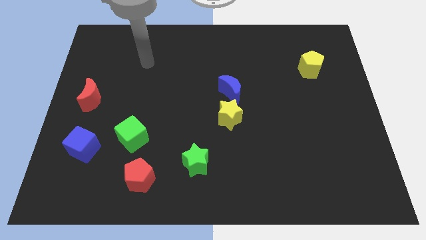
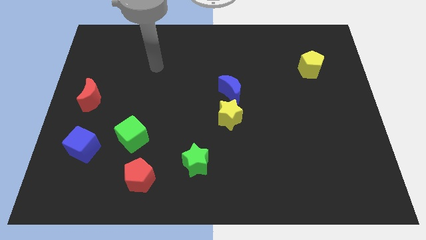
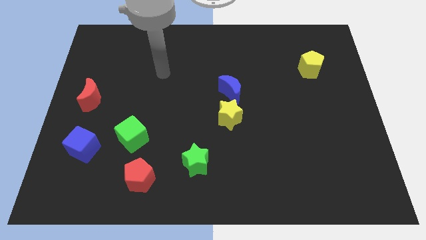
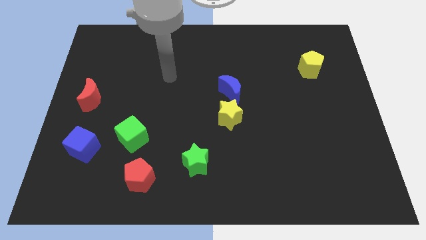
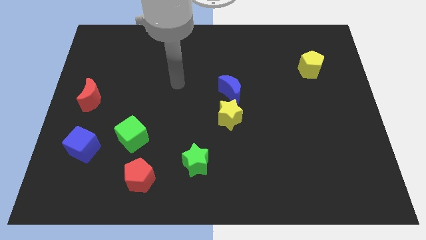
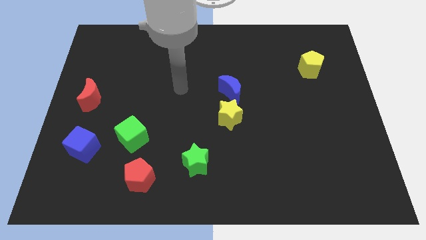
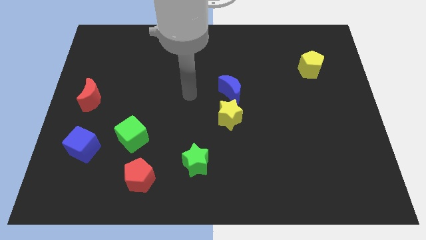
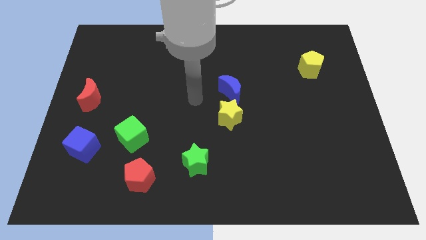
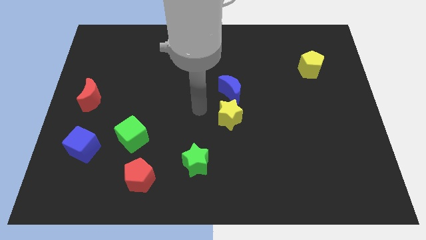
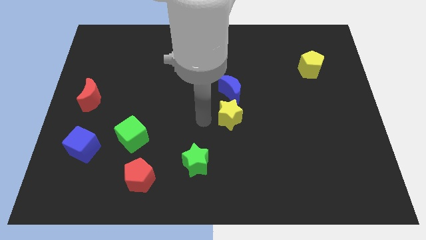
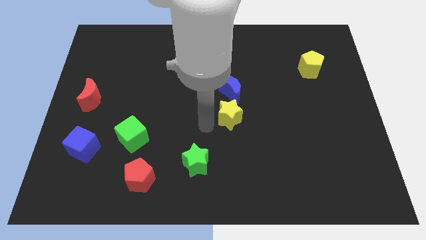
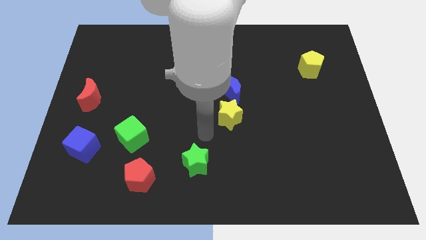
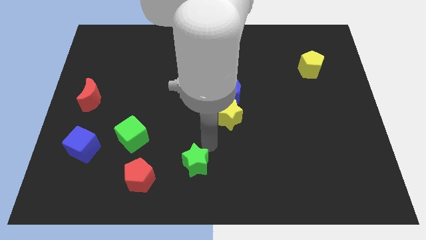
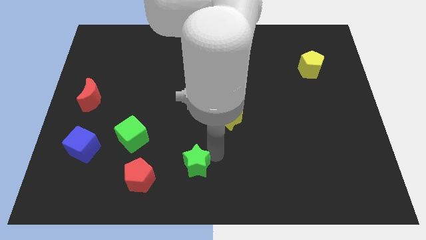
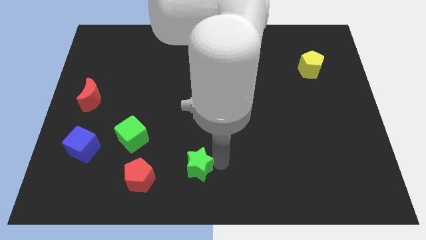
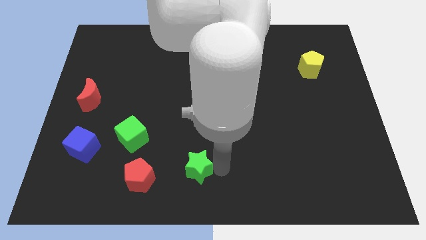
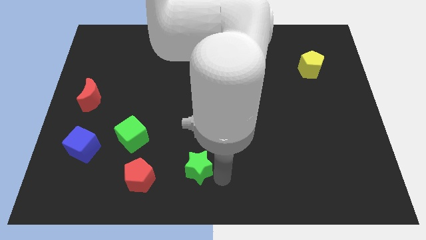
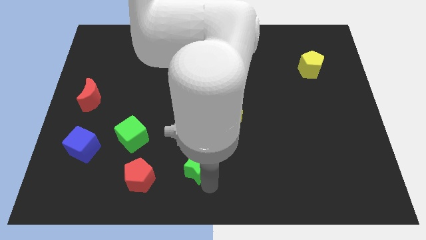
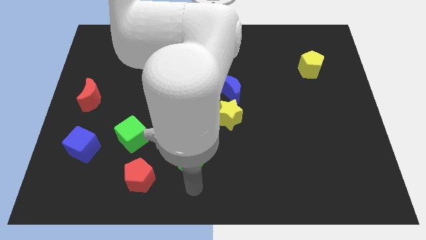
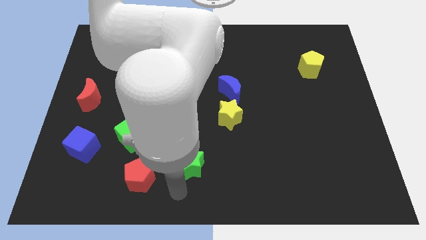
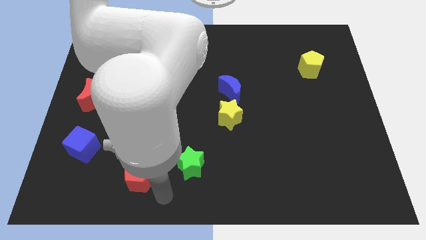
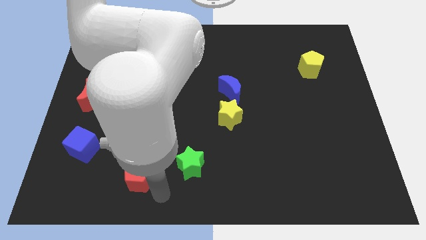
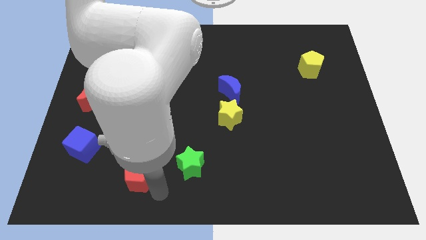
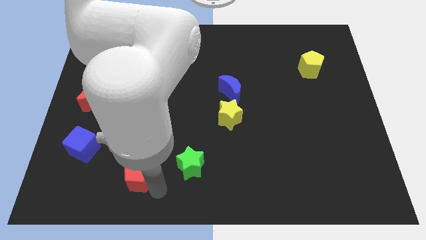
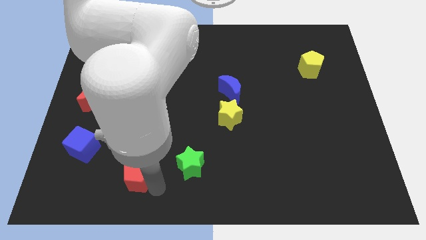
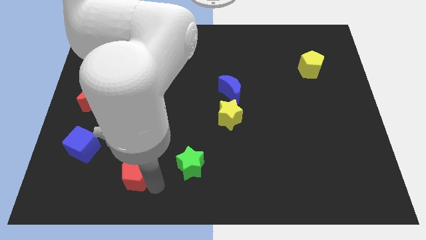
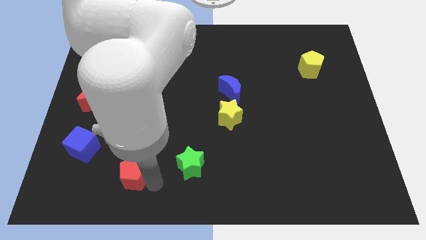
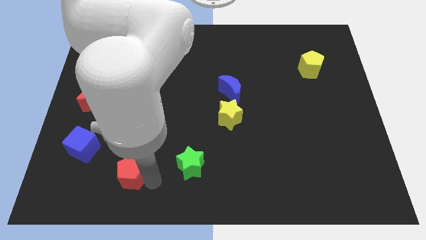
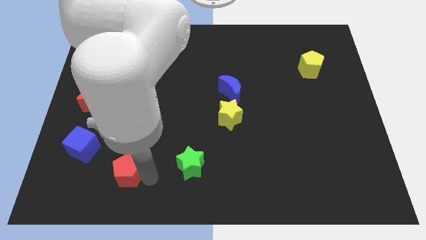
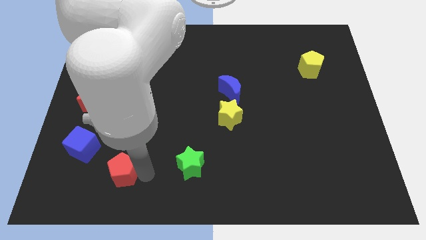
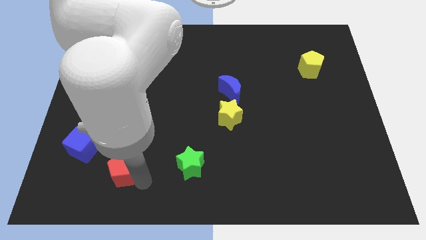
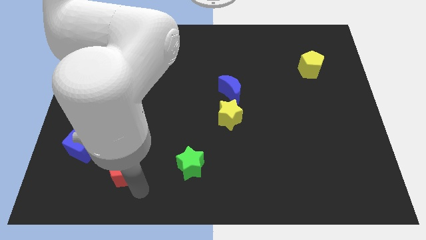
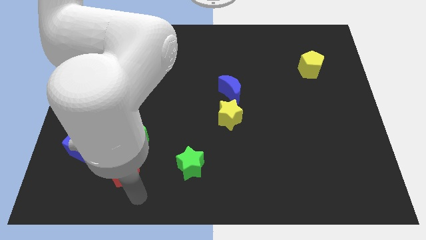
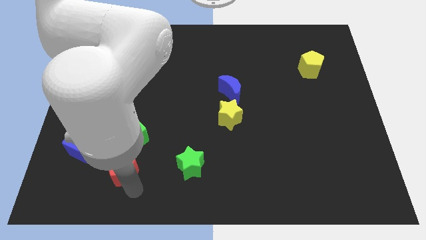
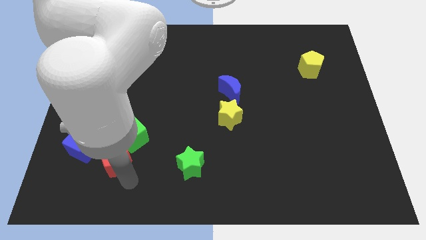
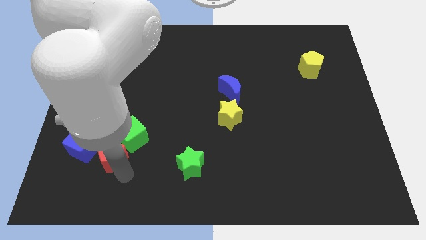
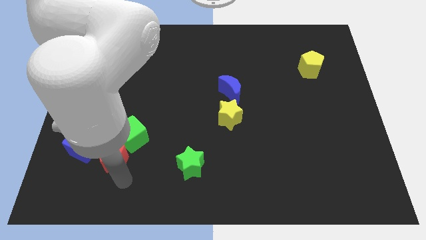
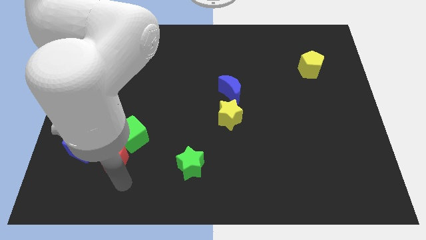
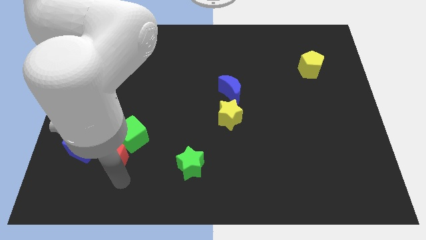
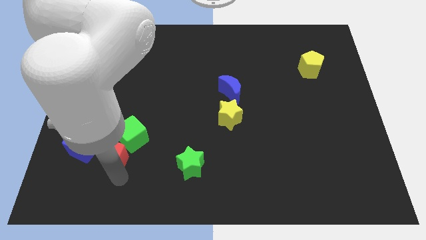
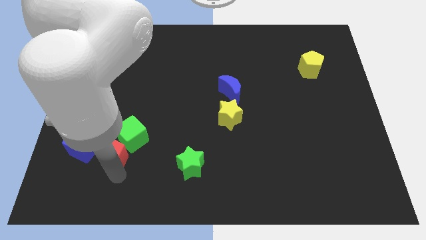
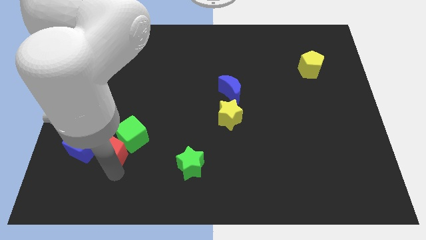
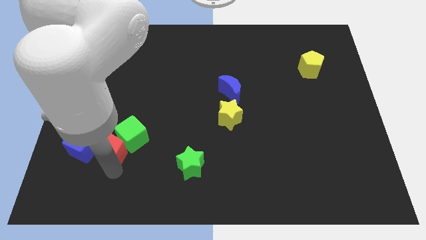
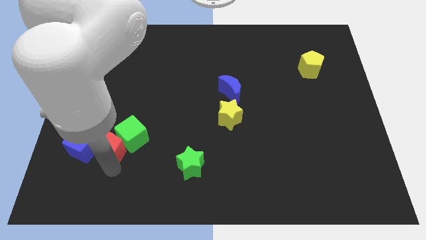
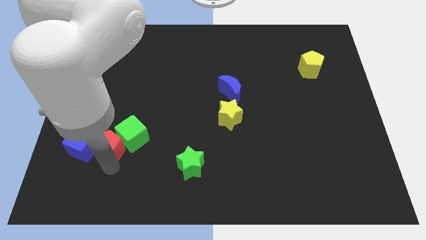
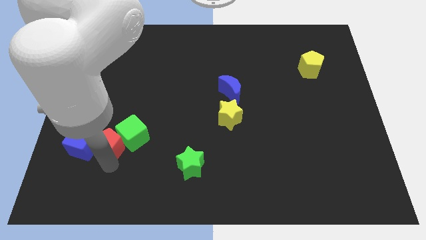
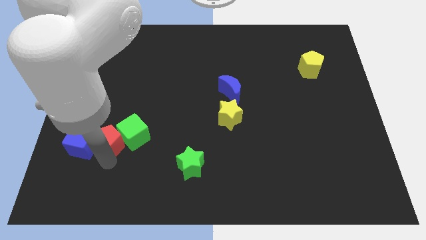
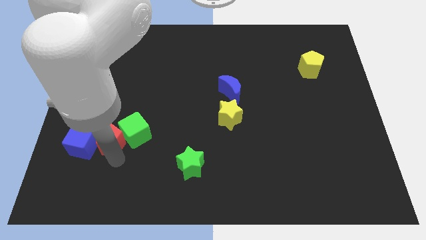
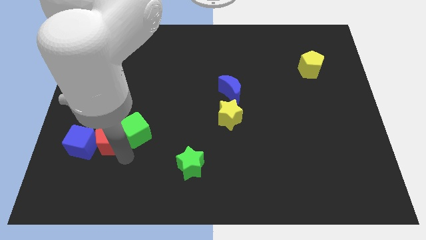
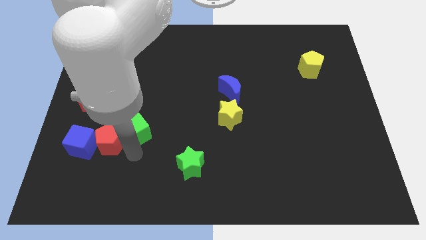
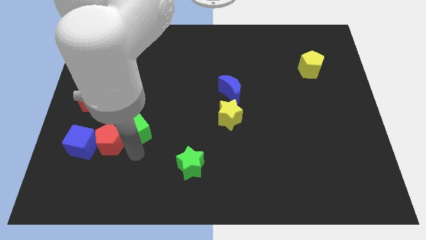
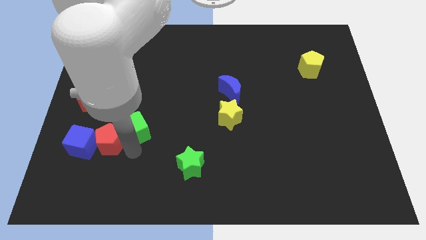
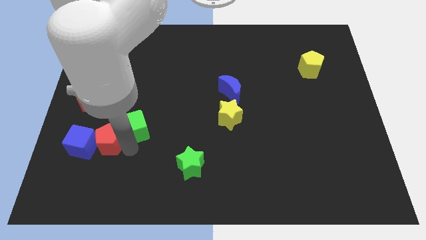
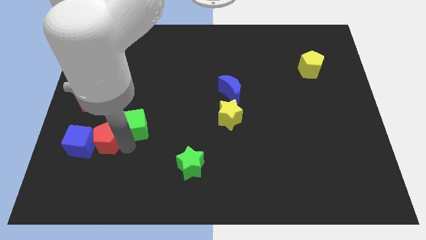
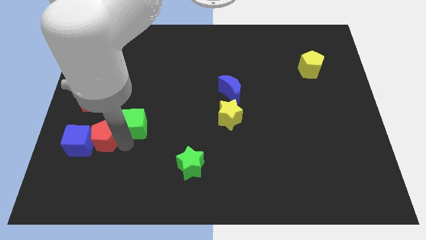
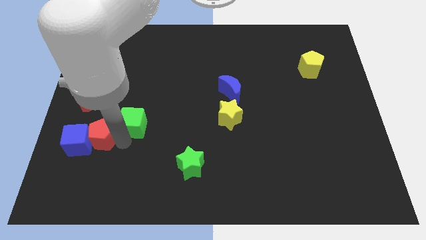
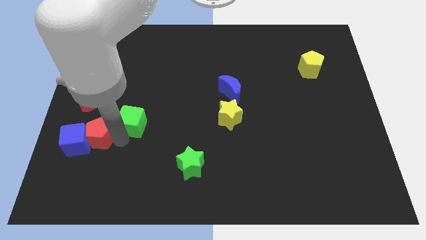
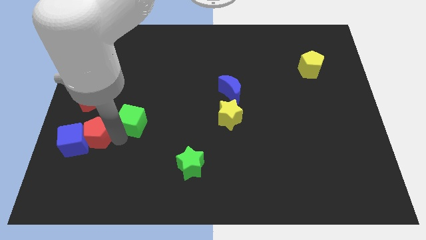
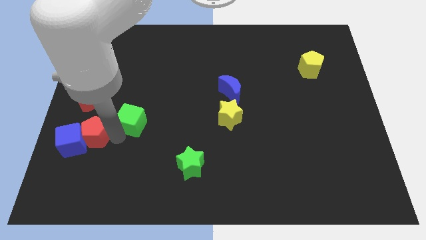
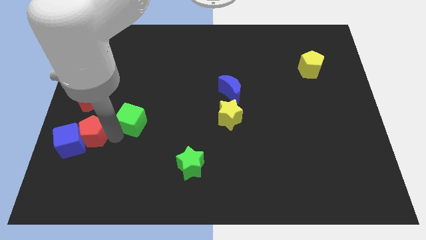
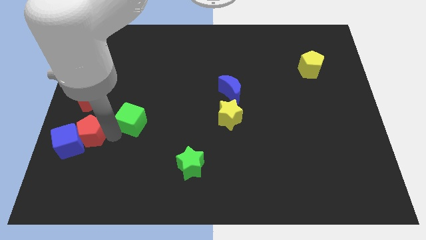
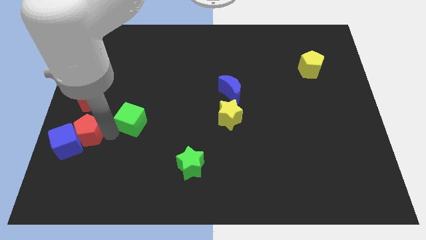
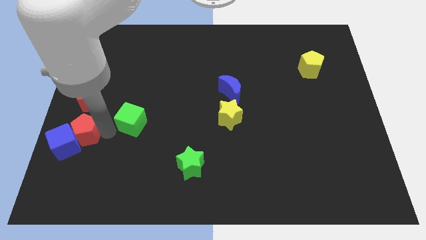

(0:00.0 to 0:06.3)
put the red pentagon to the left side
